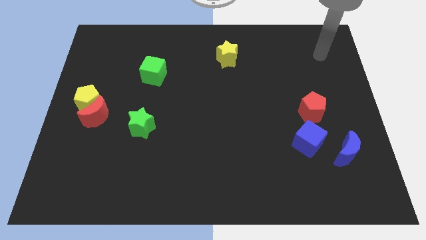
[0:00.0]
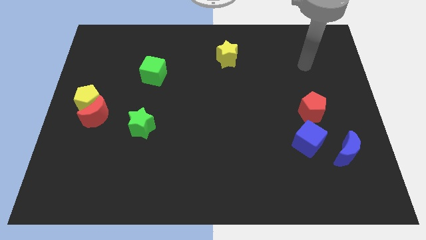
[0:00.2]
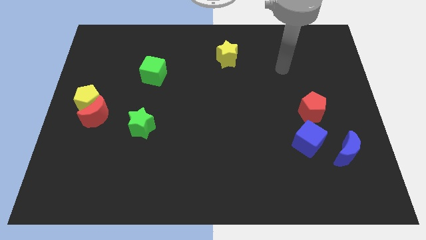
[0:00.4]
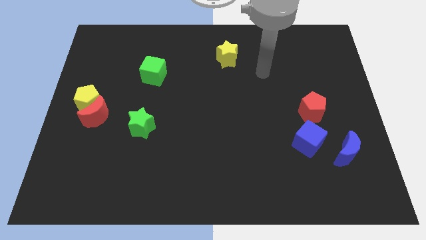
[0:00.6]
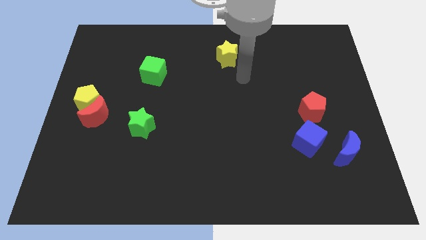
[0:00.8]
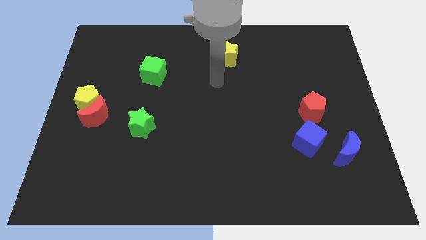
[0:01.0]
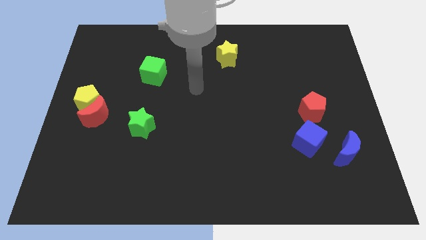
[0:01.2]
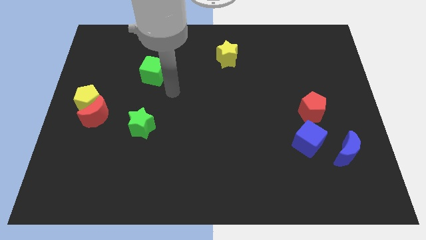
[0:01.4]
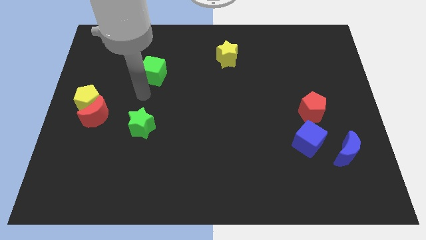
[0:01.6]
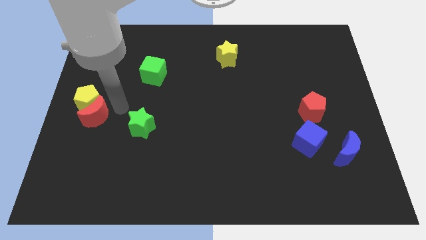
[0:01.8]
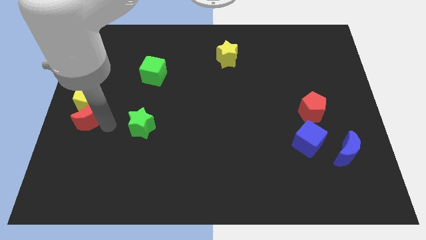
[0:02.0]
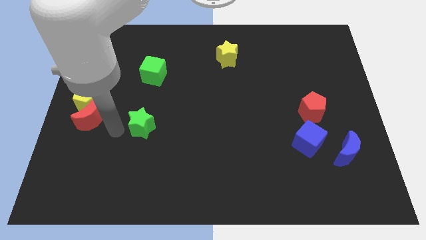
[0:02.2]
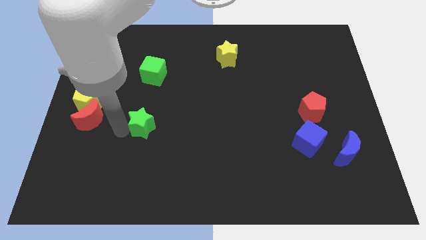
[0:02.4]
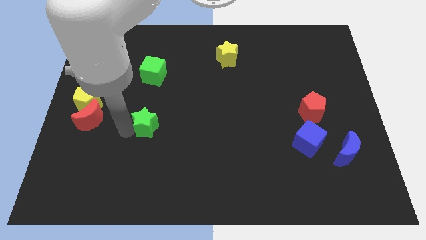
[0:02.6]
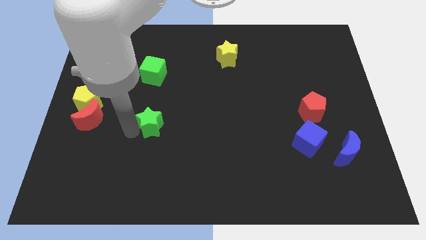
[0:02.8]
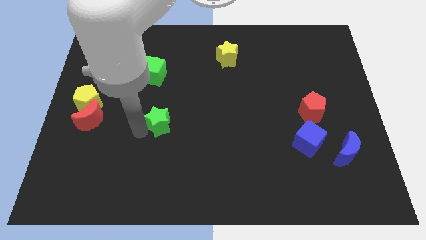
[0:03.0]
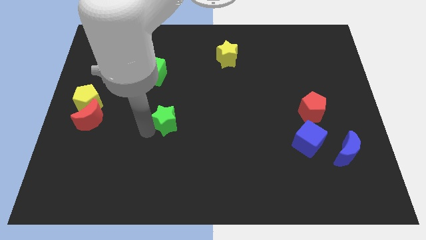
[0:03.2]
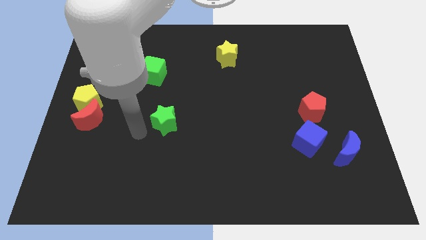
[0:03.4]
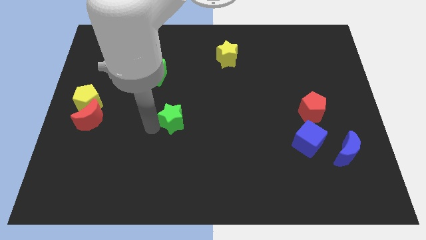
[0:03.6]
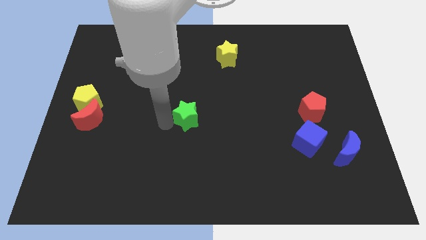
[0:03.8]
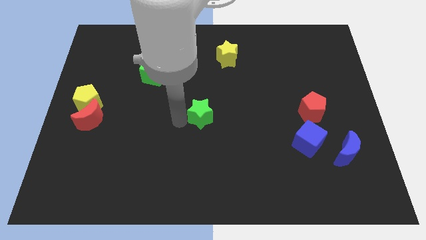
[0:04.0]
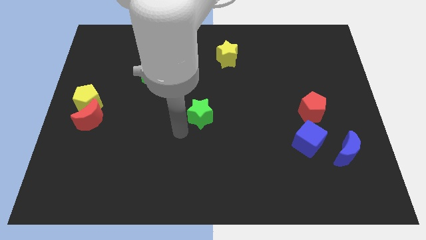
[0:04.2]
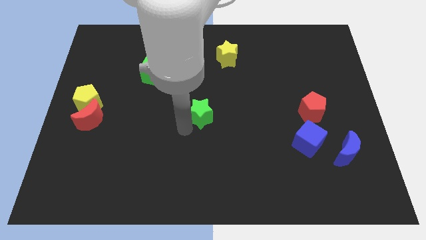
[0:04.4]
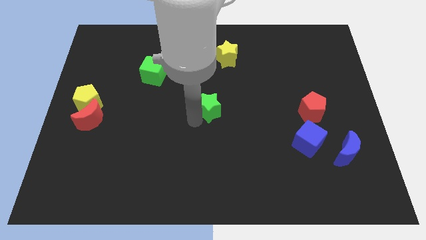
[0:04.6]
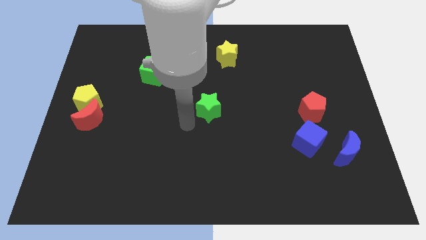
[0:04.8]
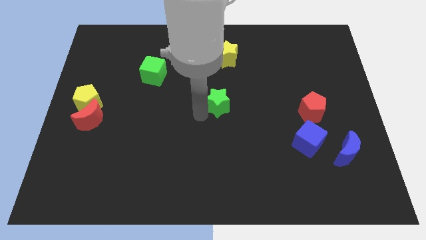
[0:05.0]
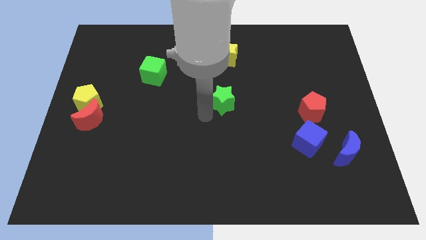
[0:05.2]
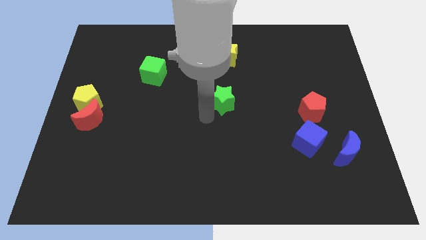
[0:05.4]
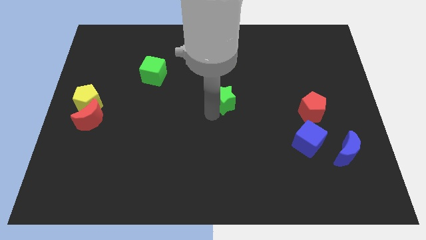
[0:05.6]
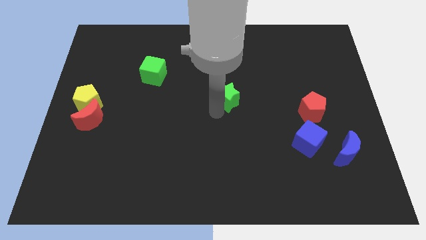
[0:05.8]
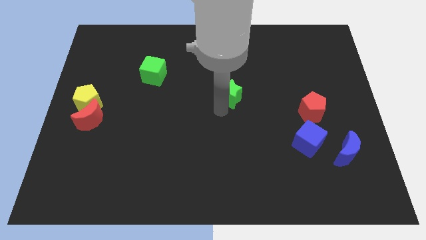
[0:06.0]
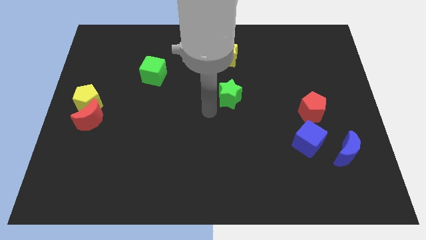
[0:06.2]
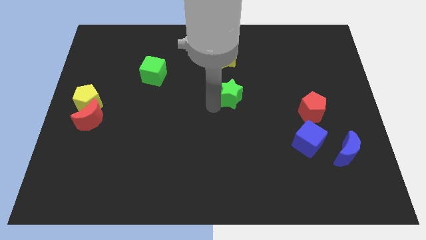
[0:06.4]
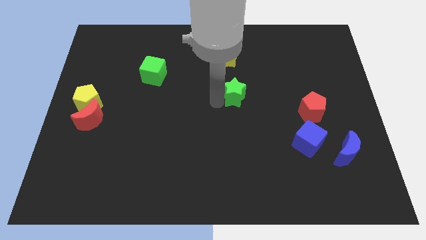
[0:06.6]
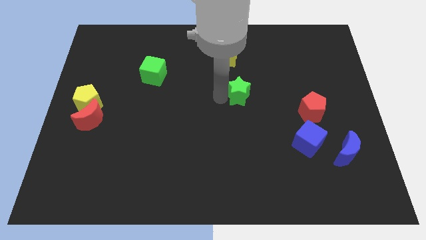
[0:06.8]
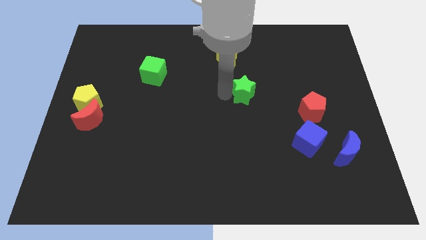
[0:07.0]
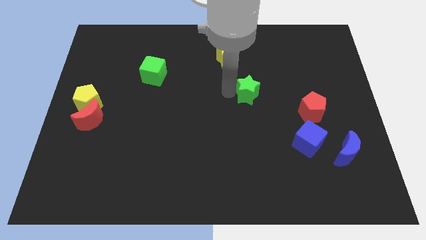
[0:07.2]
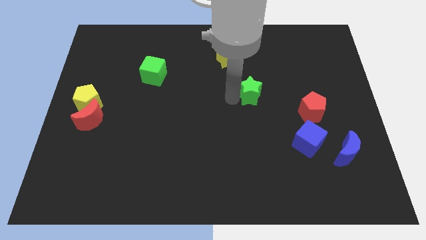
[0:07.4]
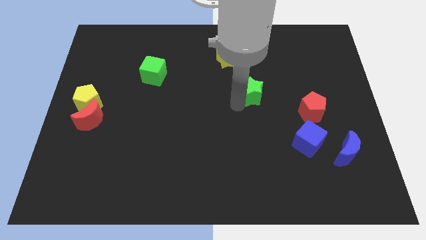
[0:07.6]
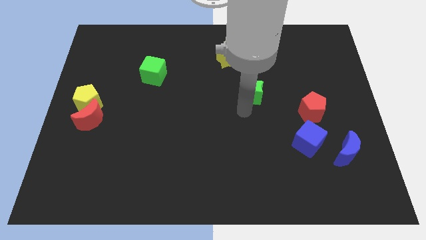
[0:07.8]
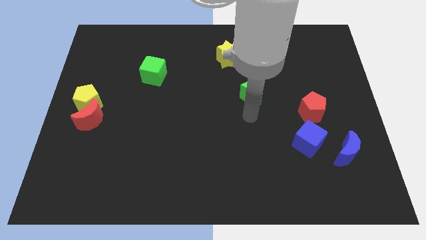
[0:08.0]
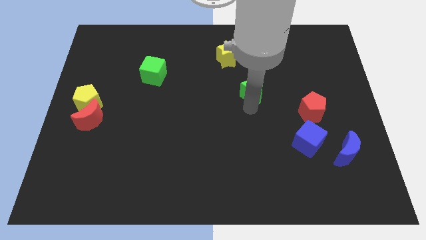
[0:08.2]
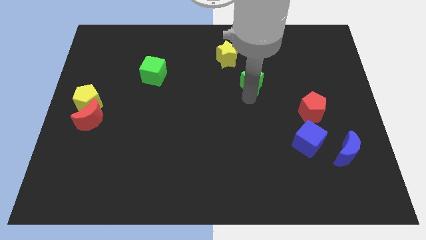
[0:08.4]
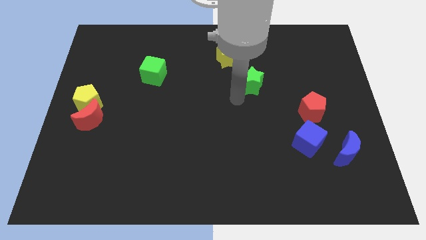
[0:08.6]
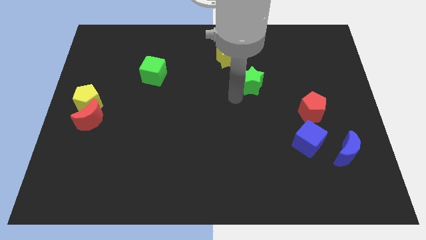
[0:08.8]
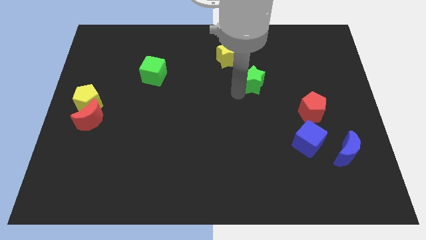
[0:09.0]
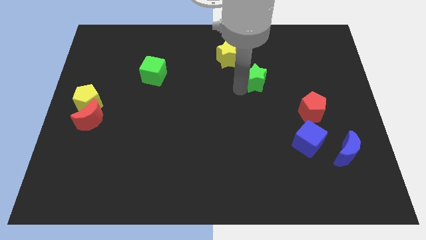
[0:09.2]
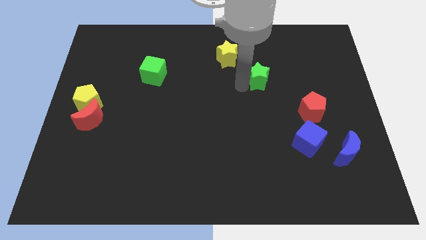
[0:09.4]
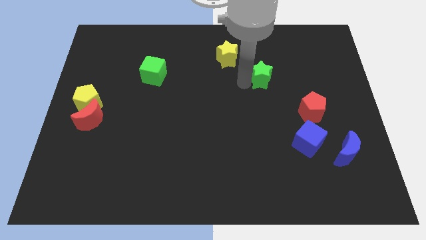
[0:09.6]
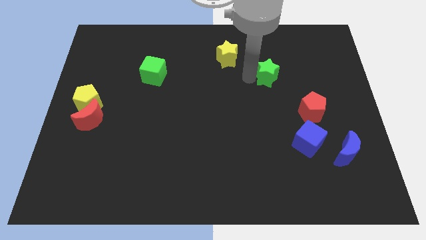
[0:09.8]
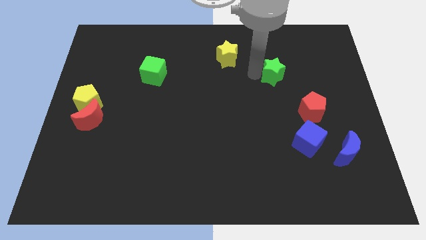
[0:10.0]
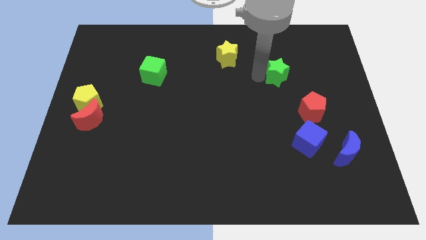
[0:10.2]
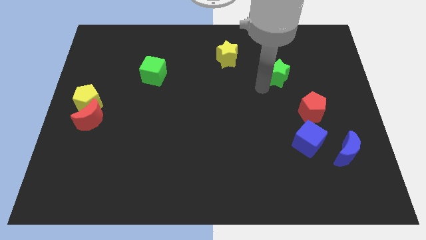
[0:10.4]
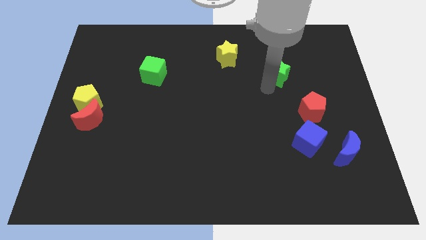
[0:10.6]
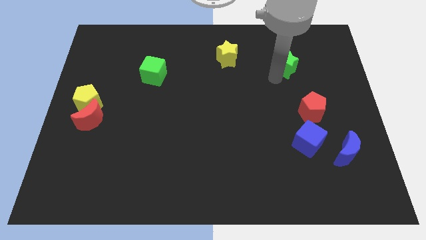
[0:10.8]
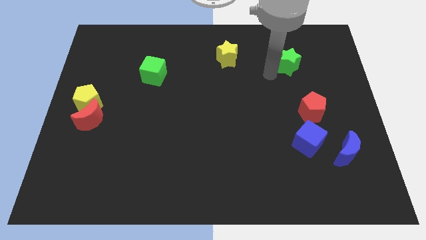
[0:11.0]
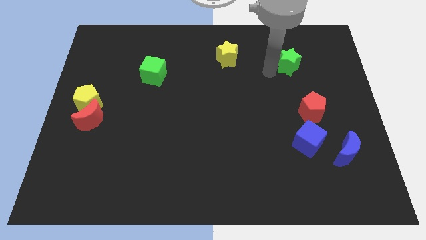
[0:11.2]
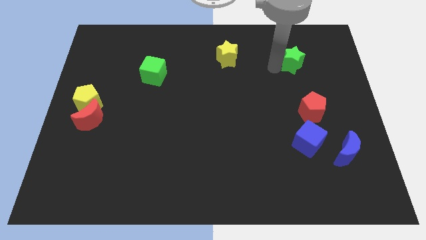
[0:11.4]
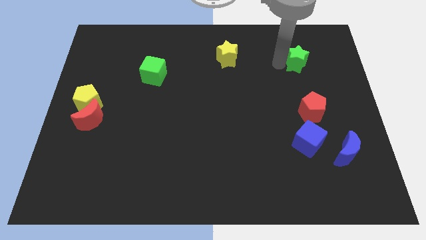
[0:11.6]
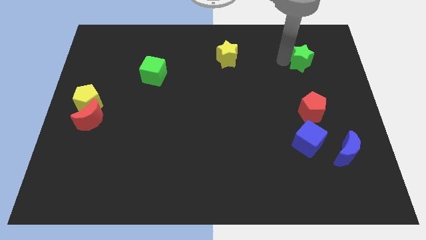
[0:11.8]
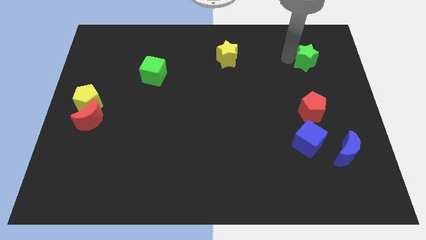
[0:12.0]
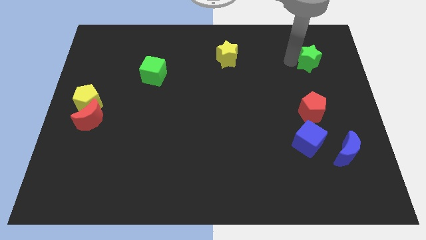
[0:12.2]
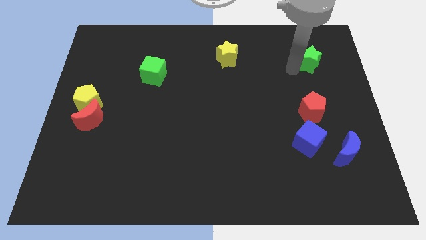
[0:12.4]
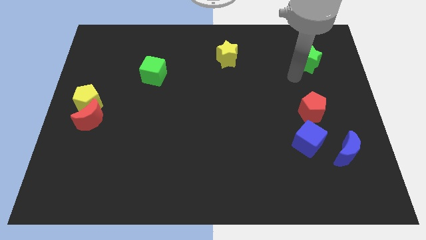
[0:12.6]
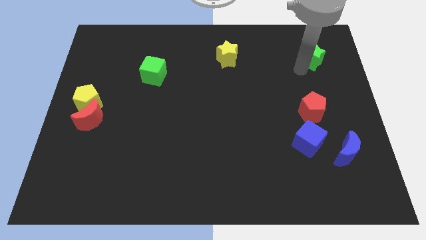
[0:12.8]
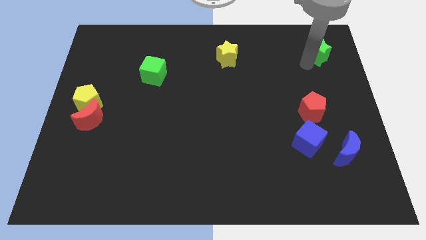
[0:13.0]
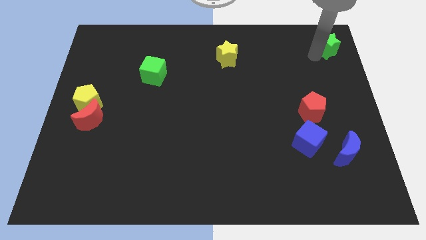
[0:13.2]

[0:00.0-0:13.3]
push the green star to the top right

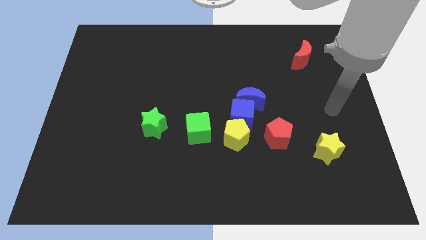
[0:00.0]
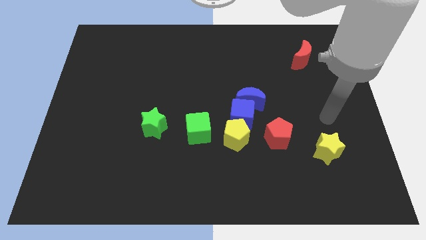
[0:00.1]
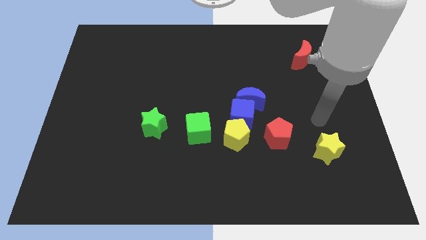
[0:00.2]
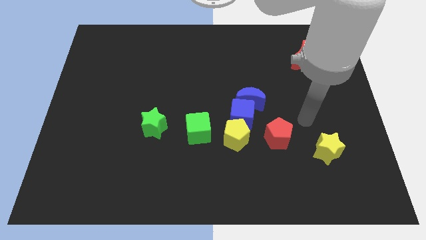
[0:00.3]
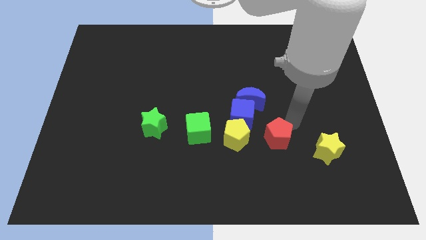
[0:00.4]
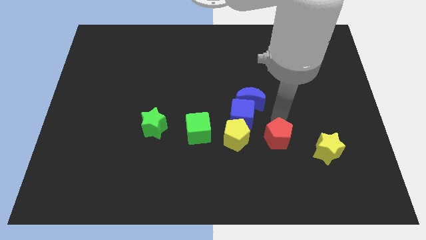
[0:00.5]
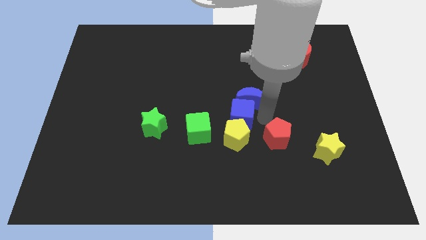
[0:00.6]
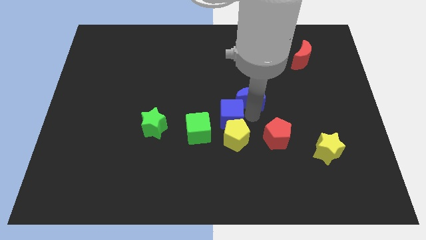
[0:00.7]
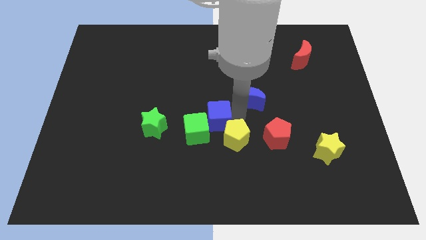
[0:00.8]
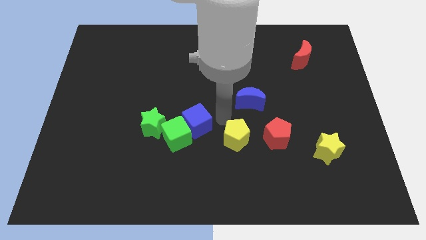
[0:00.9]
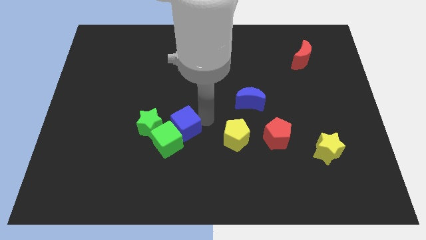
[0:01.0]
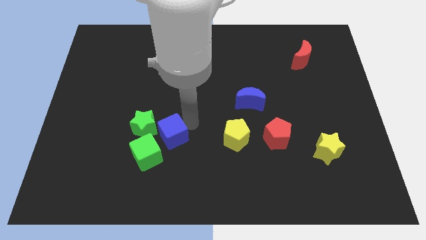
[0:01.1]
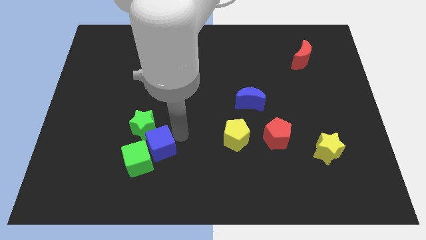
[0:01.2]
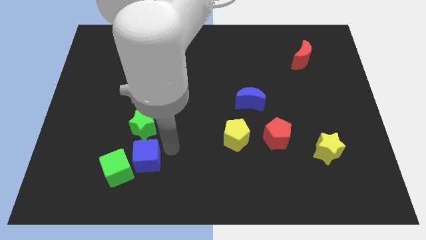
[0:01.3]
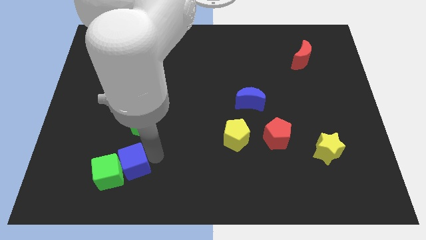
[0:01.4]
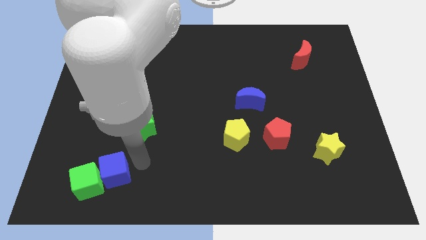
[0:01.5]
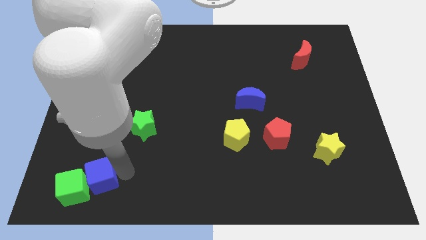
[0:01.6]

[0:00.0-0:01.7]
put the green cube to the lower left corner
